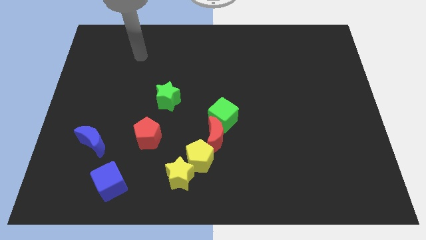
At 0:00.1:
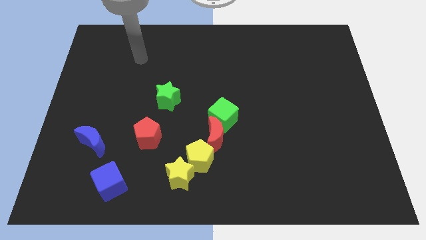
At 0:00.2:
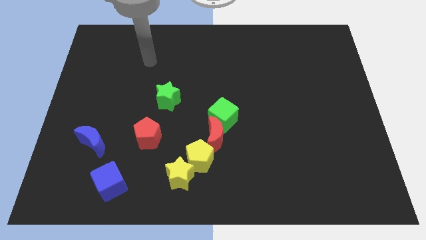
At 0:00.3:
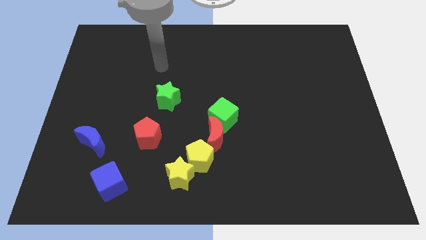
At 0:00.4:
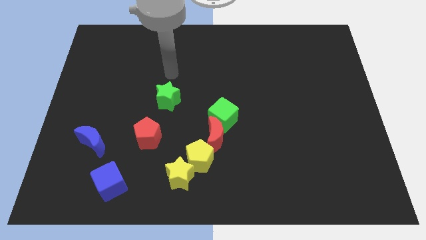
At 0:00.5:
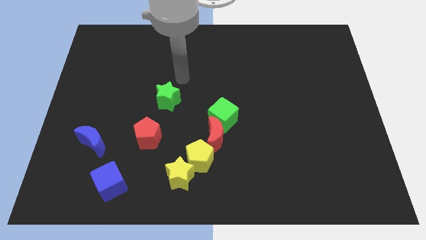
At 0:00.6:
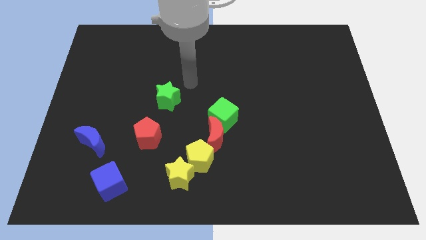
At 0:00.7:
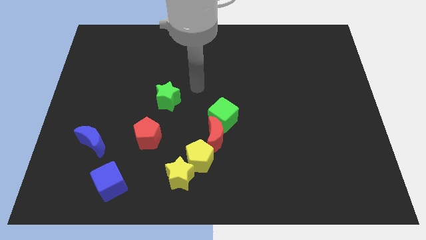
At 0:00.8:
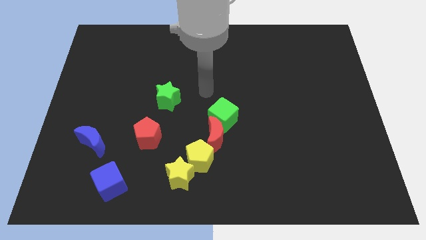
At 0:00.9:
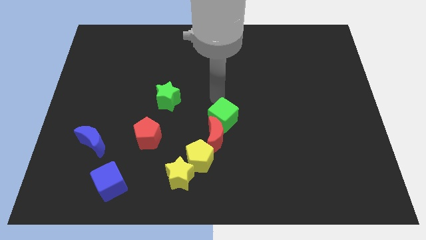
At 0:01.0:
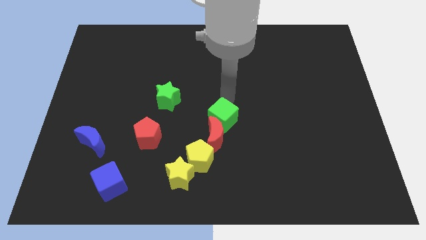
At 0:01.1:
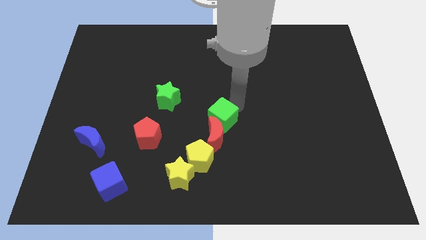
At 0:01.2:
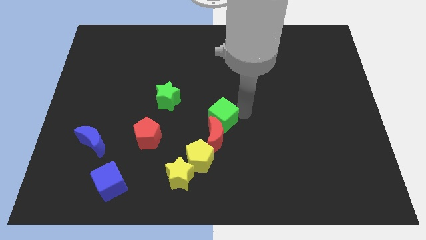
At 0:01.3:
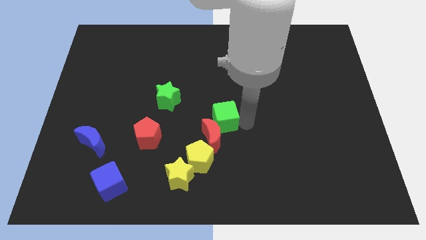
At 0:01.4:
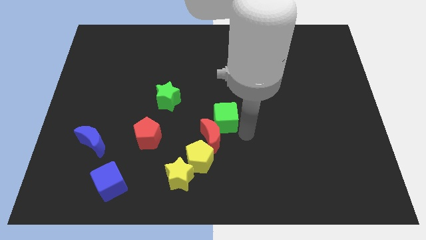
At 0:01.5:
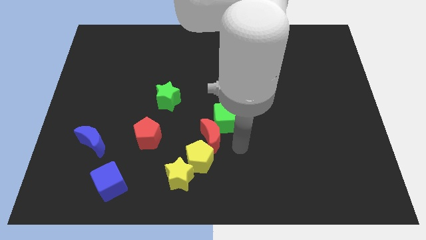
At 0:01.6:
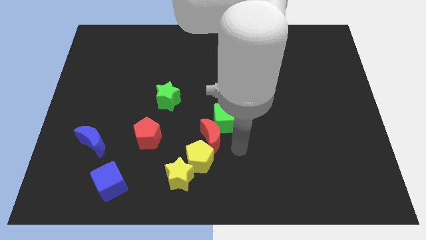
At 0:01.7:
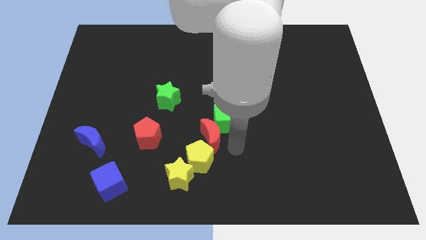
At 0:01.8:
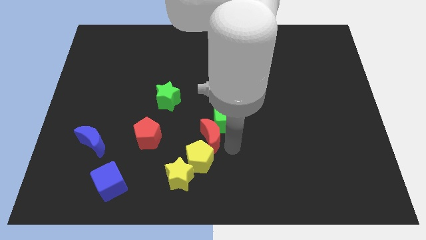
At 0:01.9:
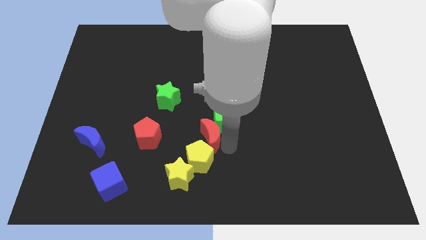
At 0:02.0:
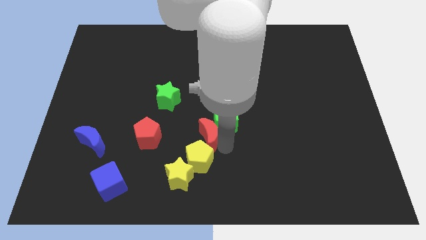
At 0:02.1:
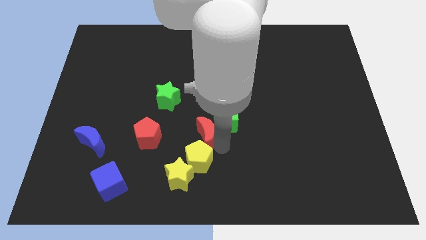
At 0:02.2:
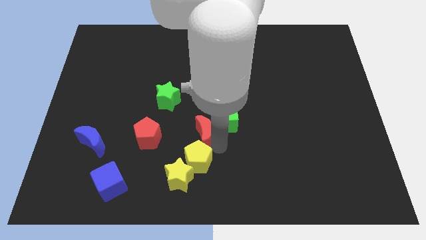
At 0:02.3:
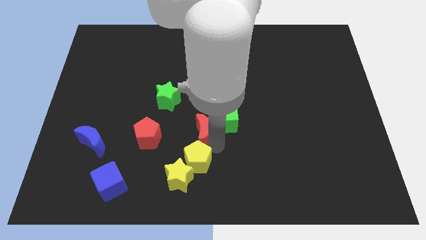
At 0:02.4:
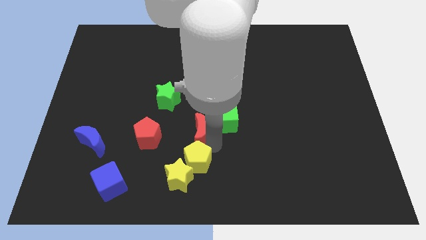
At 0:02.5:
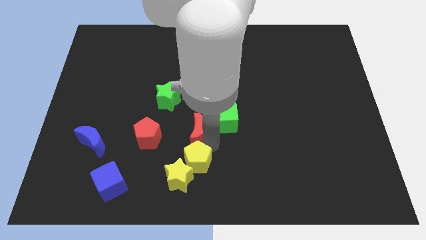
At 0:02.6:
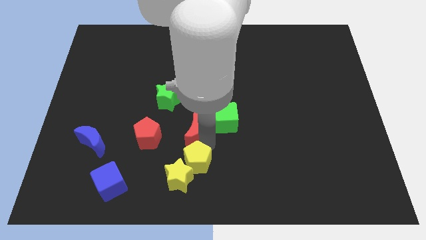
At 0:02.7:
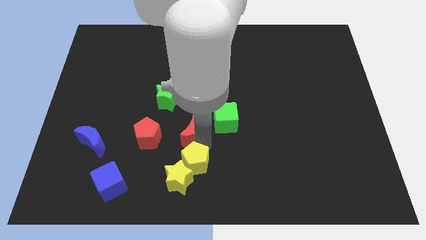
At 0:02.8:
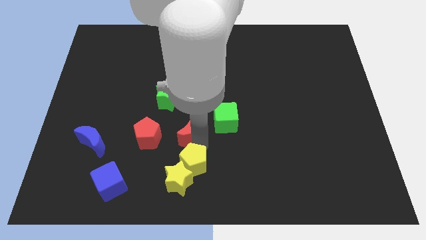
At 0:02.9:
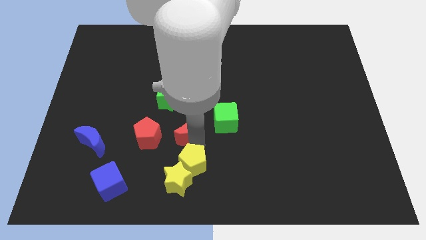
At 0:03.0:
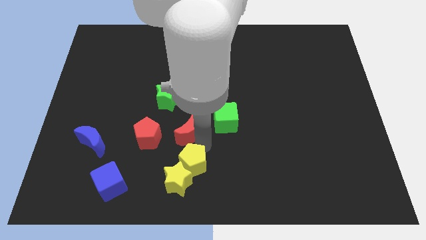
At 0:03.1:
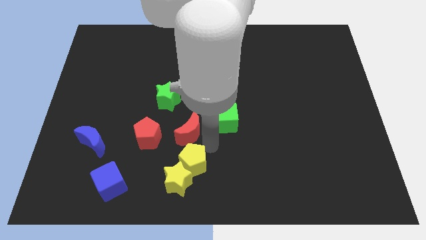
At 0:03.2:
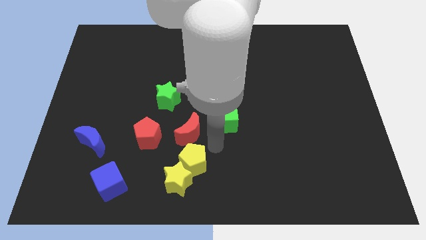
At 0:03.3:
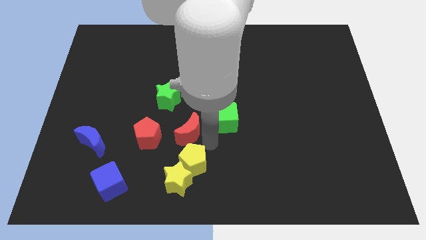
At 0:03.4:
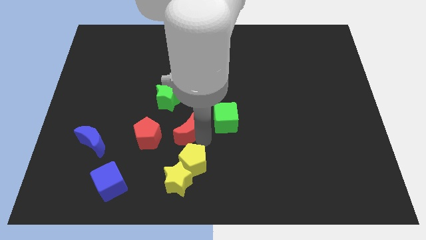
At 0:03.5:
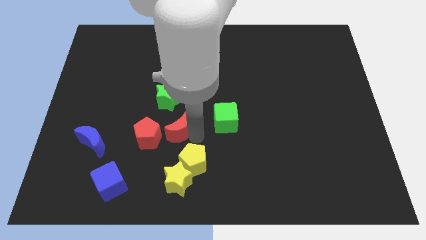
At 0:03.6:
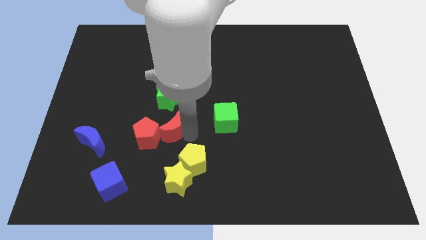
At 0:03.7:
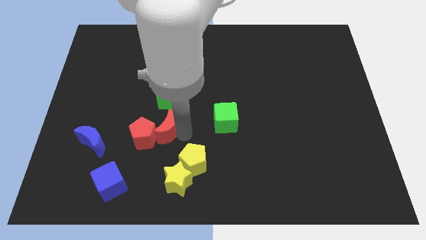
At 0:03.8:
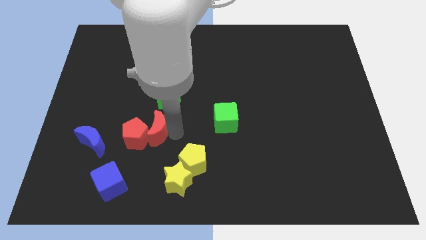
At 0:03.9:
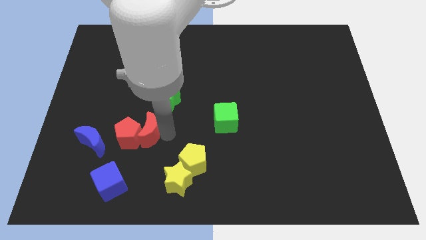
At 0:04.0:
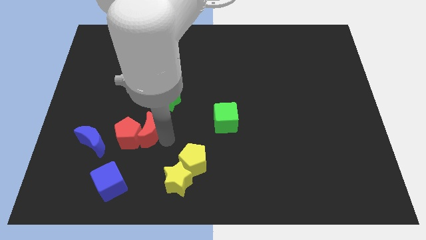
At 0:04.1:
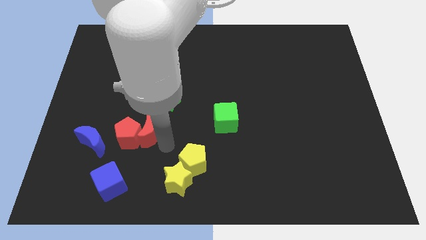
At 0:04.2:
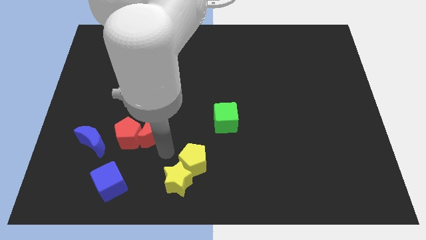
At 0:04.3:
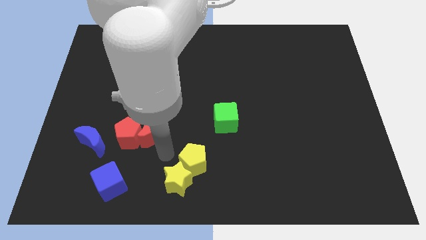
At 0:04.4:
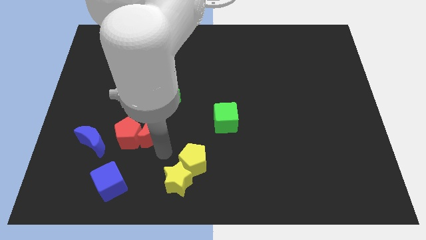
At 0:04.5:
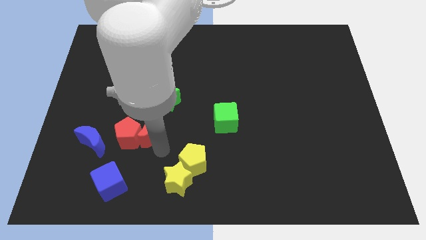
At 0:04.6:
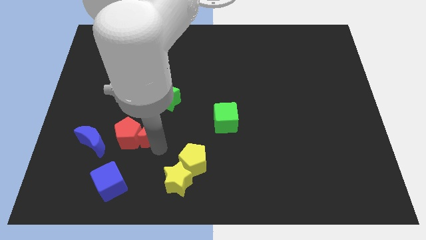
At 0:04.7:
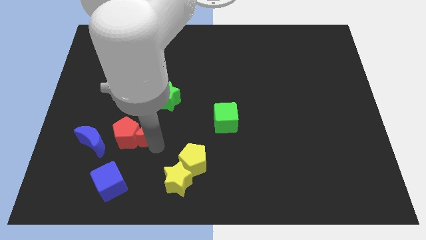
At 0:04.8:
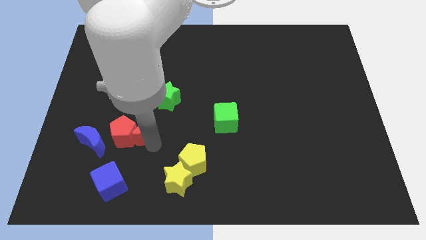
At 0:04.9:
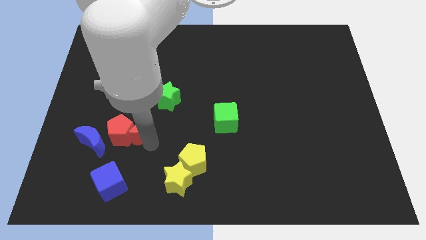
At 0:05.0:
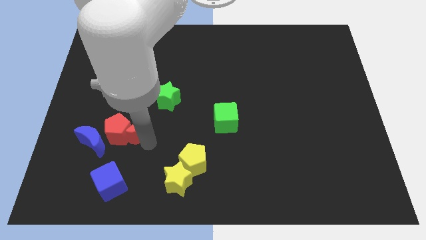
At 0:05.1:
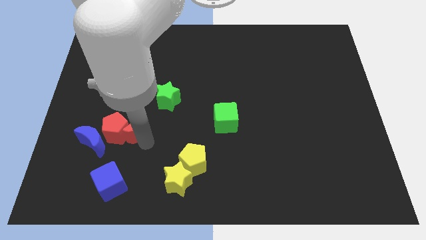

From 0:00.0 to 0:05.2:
put the red moon to the top right of the blue moon

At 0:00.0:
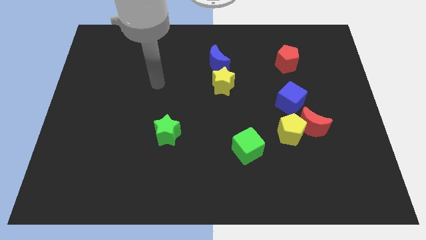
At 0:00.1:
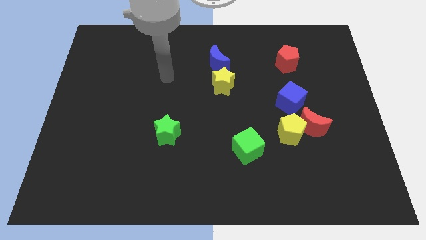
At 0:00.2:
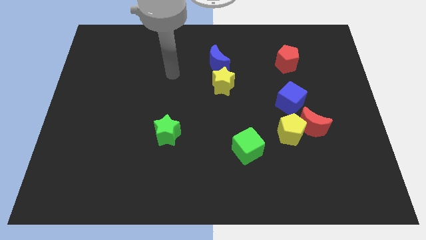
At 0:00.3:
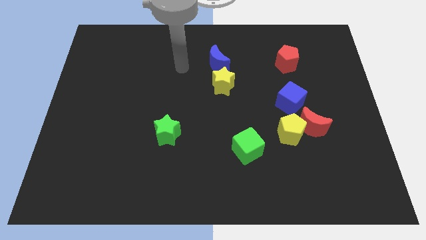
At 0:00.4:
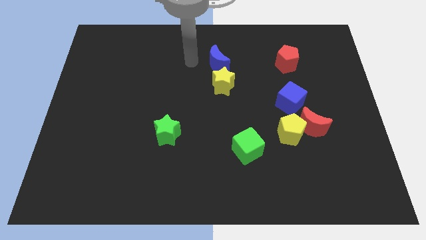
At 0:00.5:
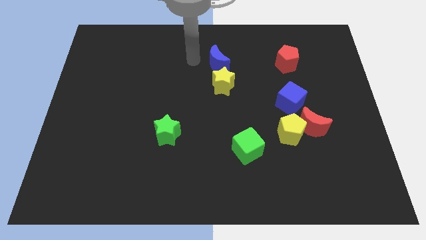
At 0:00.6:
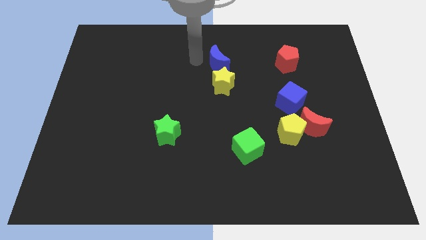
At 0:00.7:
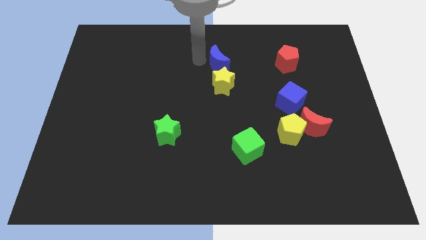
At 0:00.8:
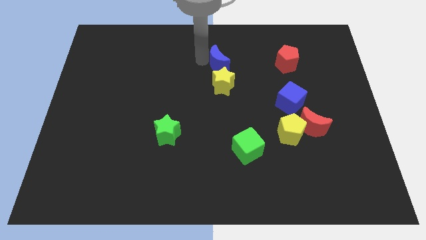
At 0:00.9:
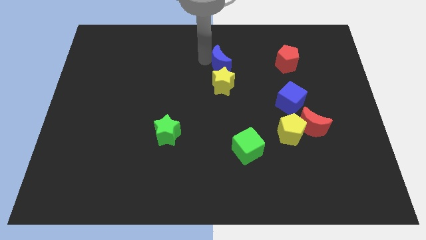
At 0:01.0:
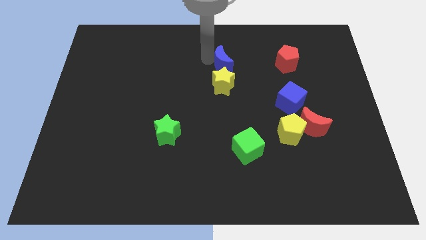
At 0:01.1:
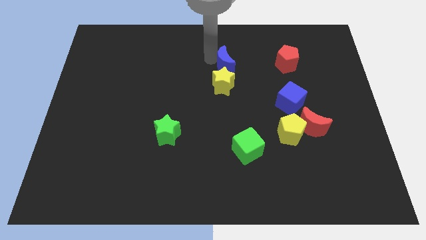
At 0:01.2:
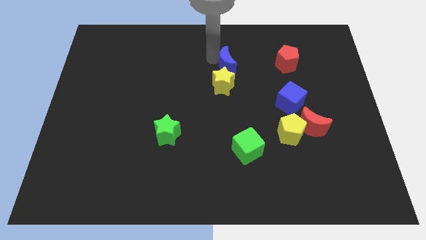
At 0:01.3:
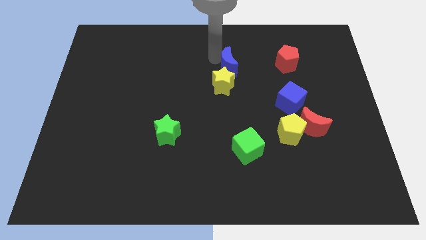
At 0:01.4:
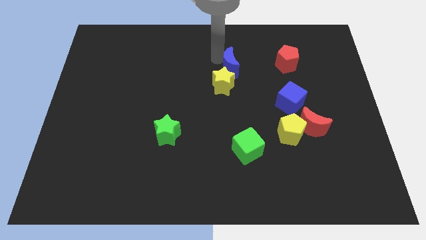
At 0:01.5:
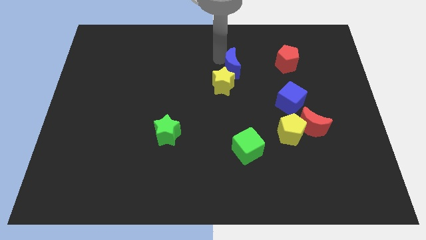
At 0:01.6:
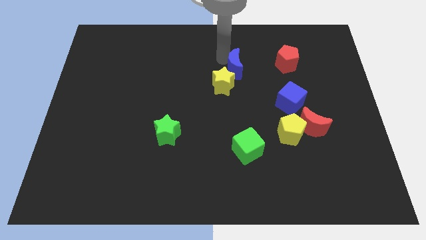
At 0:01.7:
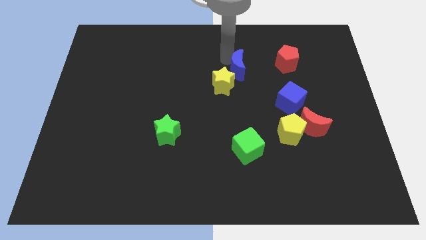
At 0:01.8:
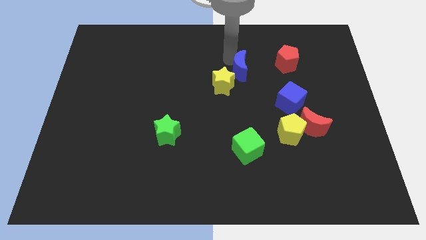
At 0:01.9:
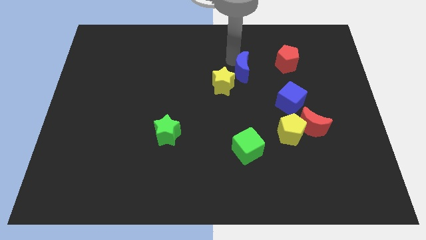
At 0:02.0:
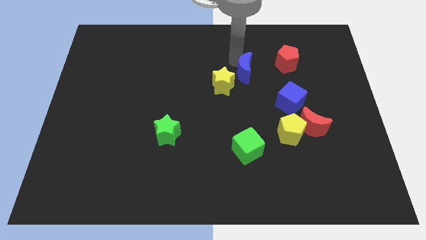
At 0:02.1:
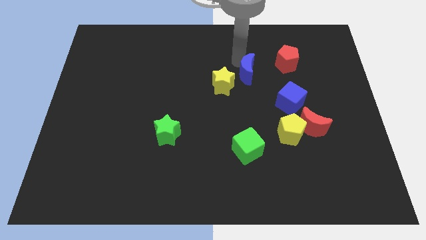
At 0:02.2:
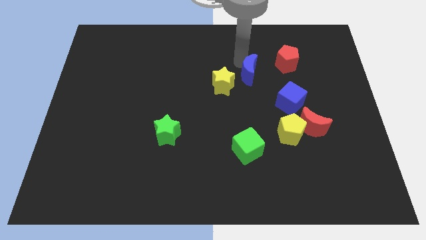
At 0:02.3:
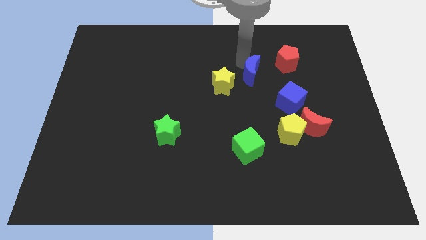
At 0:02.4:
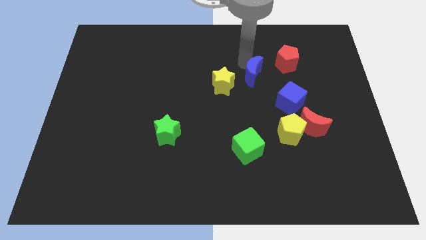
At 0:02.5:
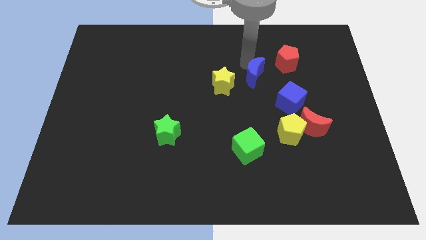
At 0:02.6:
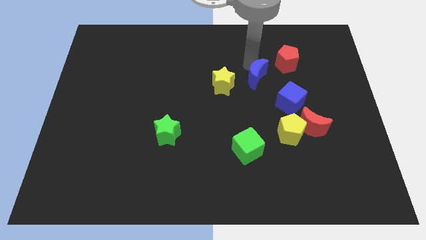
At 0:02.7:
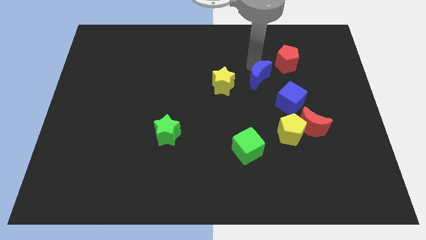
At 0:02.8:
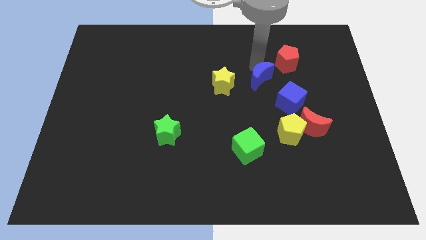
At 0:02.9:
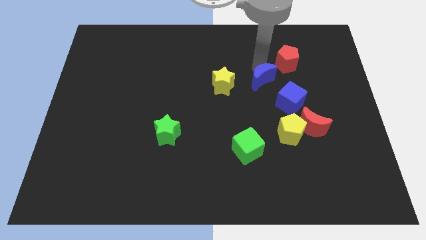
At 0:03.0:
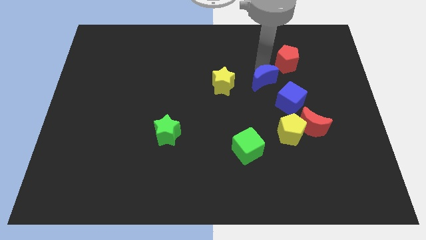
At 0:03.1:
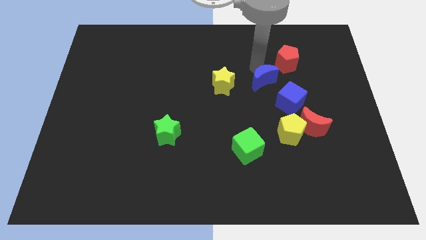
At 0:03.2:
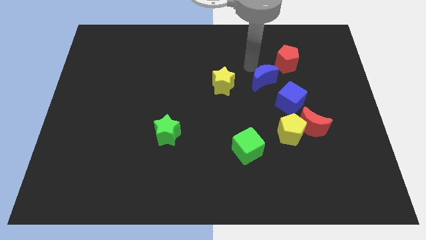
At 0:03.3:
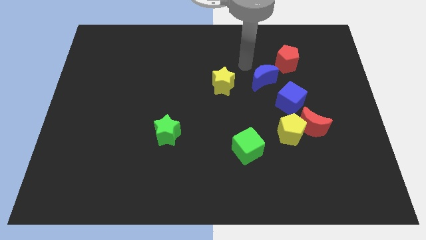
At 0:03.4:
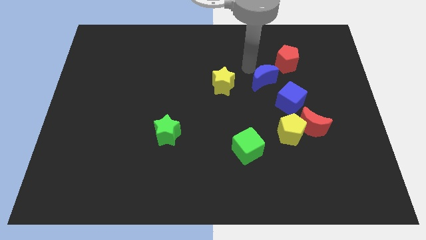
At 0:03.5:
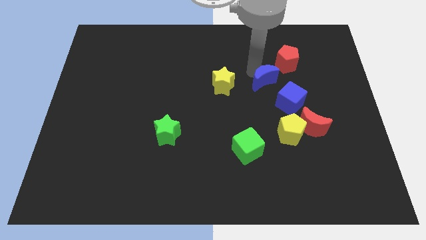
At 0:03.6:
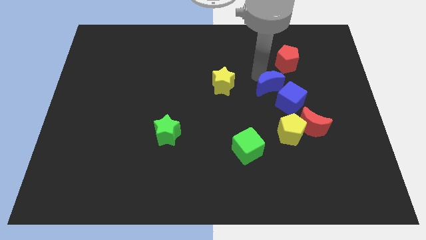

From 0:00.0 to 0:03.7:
put the blue moon above the yellow pentagon
